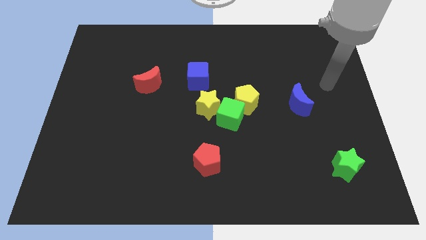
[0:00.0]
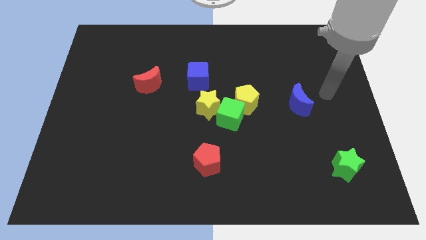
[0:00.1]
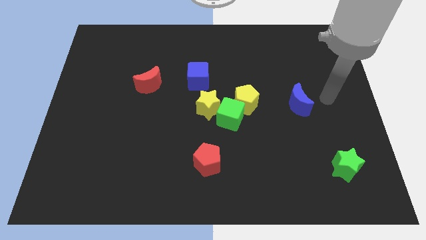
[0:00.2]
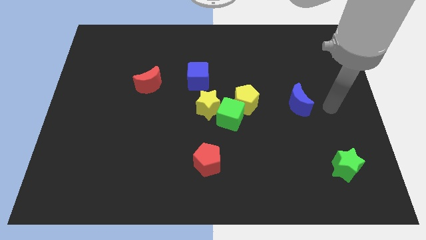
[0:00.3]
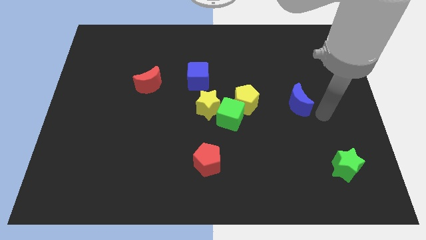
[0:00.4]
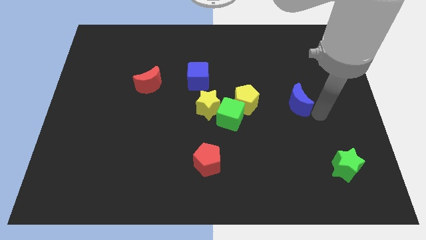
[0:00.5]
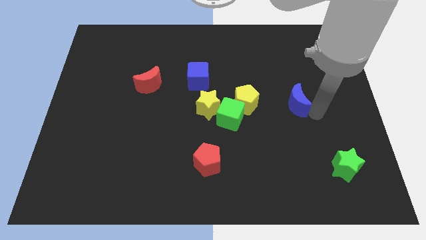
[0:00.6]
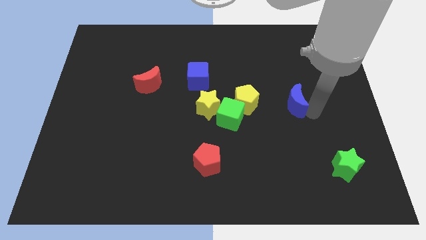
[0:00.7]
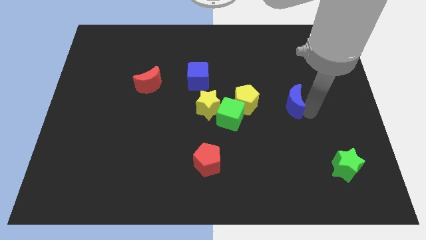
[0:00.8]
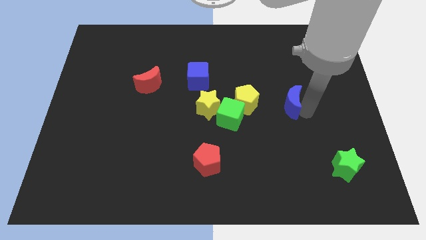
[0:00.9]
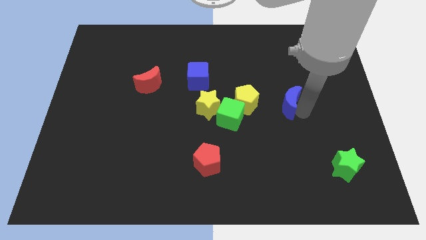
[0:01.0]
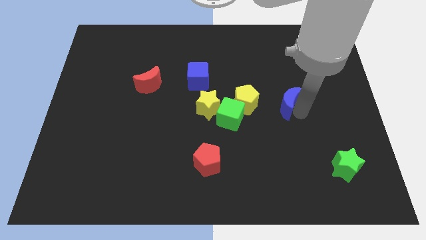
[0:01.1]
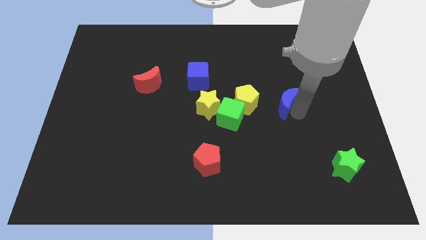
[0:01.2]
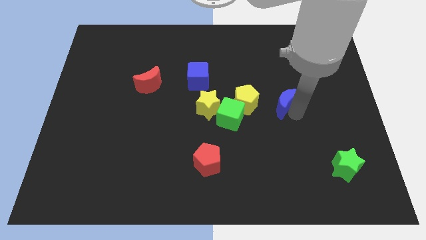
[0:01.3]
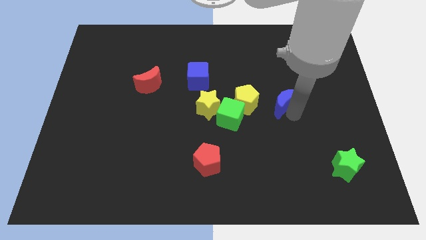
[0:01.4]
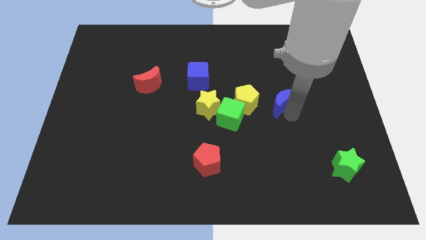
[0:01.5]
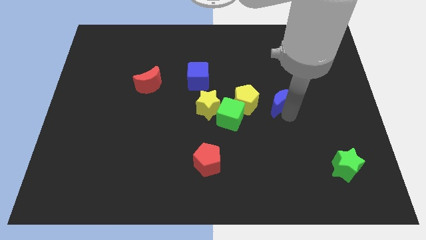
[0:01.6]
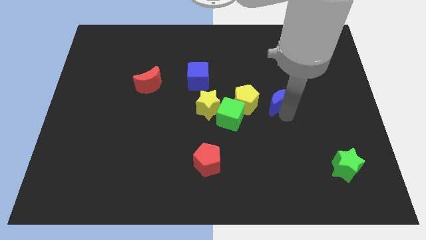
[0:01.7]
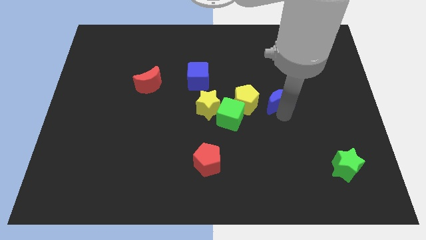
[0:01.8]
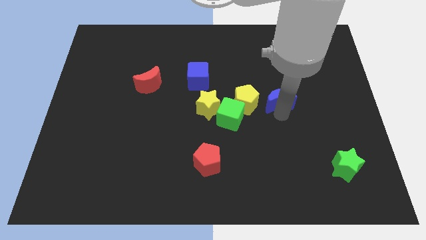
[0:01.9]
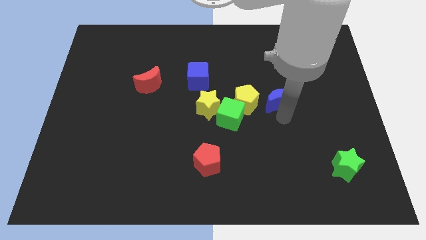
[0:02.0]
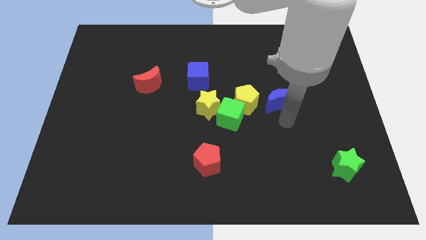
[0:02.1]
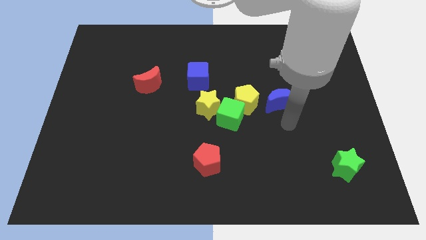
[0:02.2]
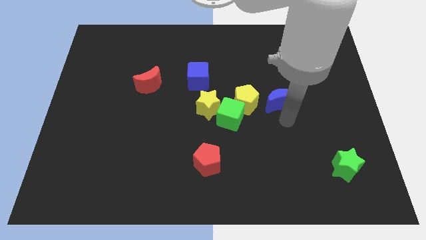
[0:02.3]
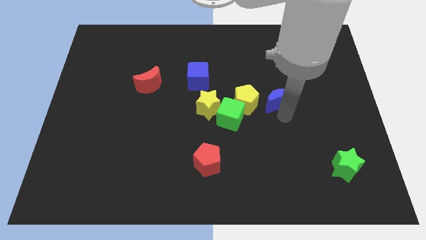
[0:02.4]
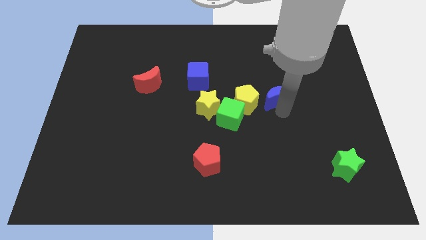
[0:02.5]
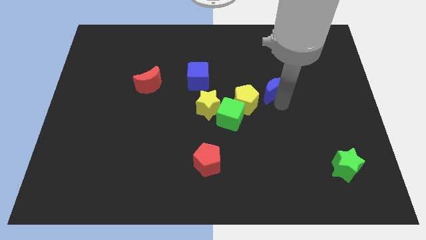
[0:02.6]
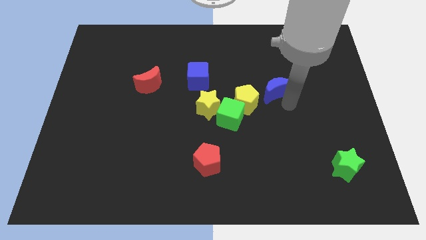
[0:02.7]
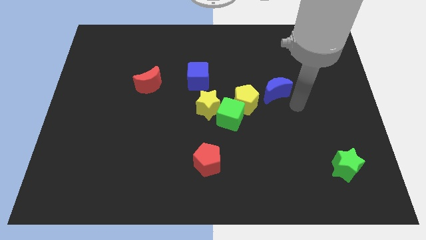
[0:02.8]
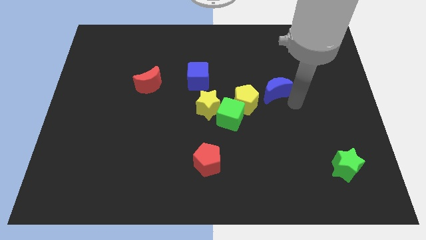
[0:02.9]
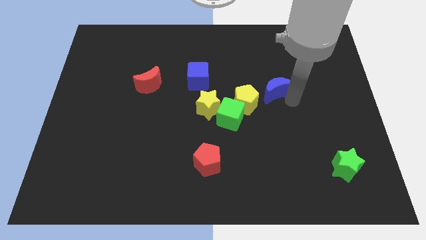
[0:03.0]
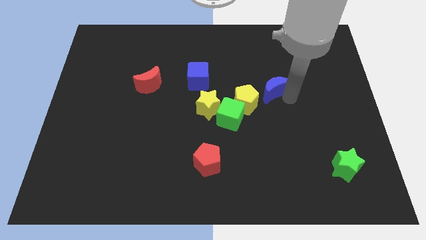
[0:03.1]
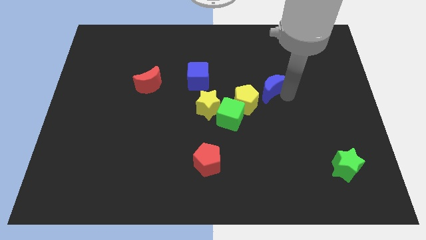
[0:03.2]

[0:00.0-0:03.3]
push the blue moon somewhat up and then left

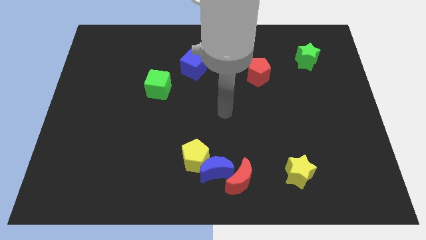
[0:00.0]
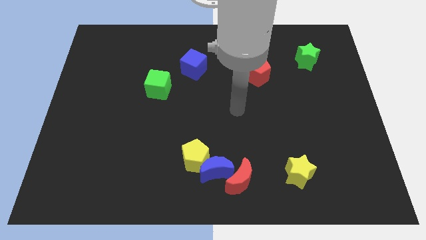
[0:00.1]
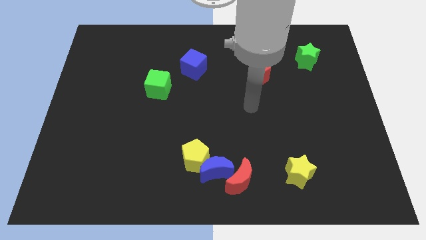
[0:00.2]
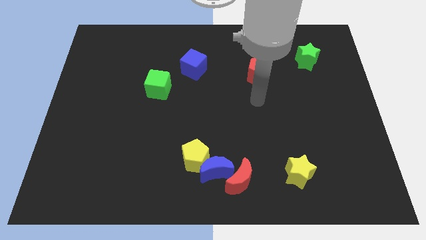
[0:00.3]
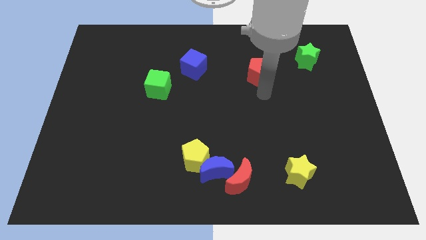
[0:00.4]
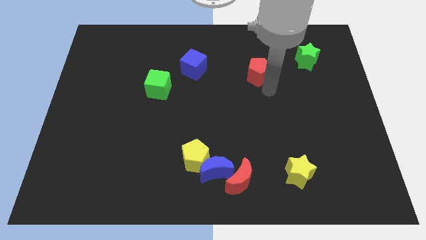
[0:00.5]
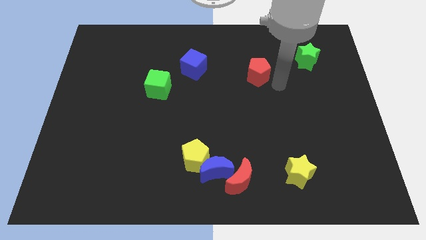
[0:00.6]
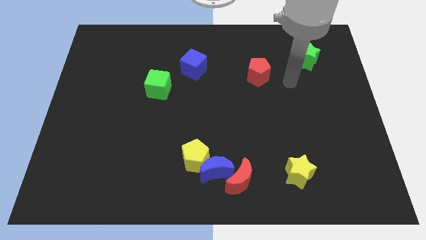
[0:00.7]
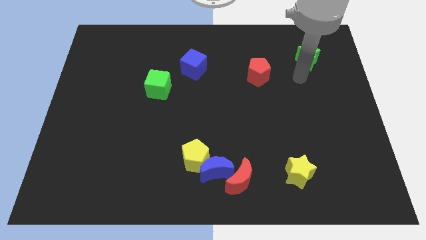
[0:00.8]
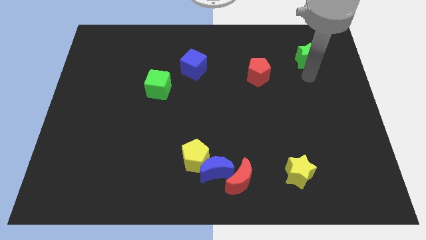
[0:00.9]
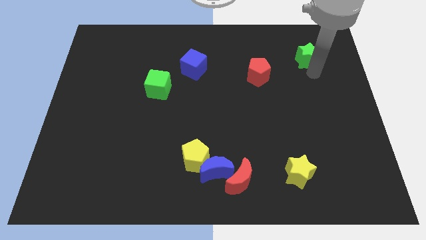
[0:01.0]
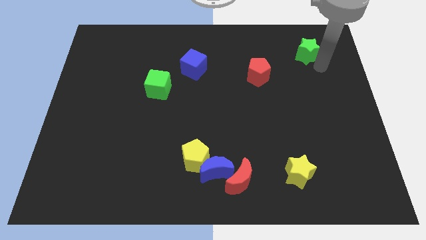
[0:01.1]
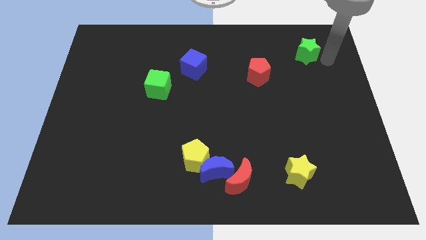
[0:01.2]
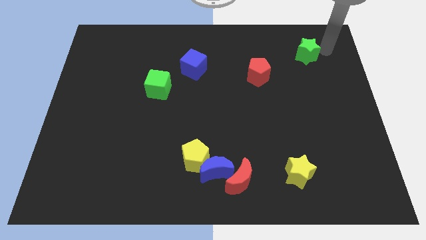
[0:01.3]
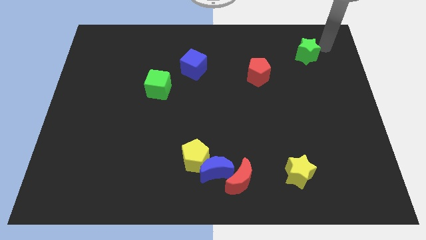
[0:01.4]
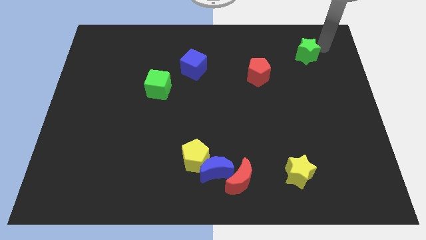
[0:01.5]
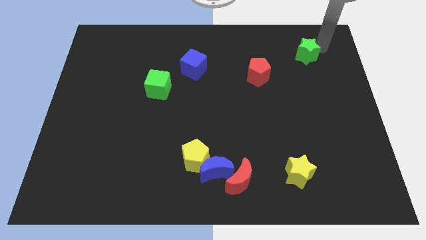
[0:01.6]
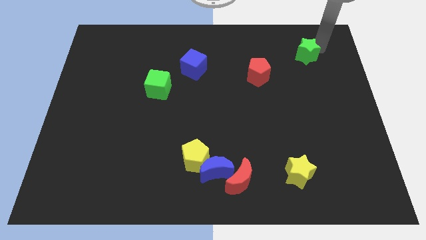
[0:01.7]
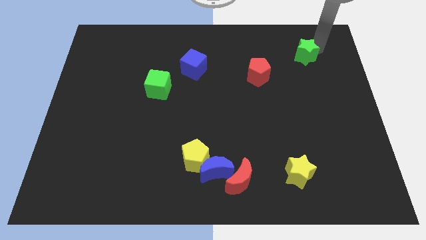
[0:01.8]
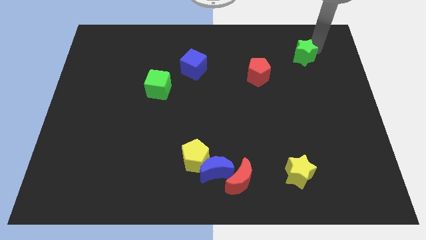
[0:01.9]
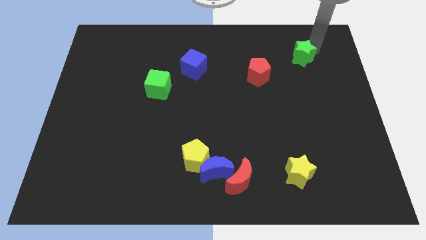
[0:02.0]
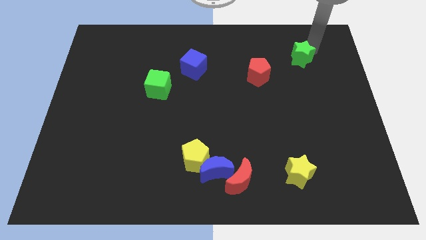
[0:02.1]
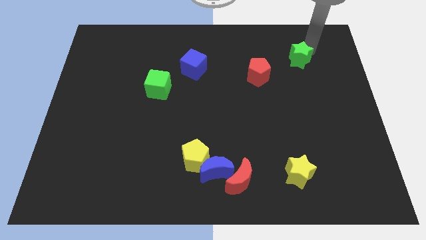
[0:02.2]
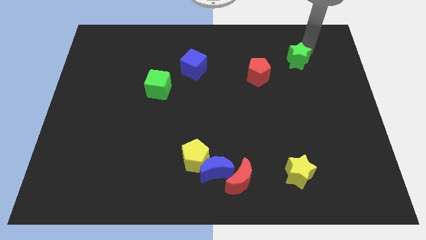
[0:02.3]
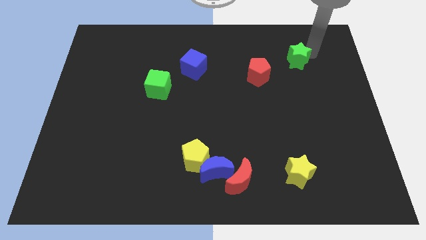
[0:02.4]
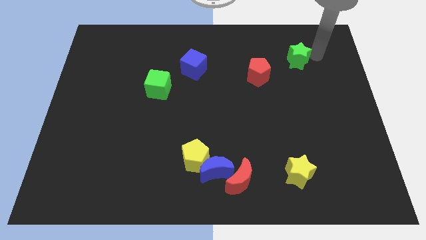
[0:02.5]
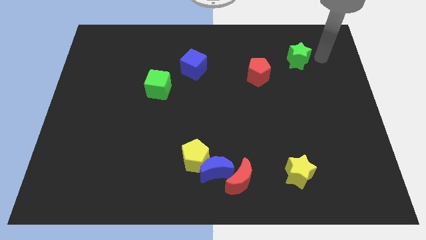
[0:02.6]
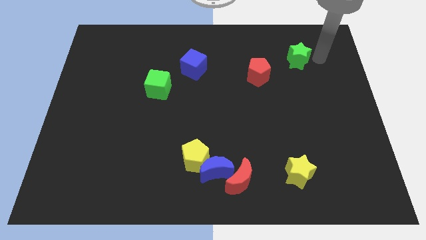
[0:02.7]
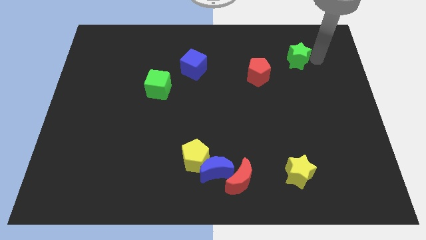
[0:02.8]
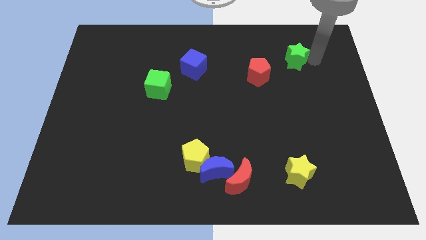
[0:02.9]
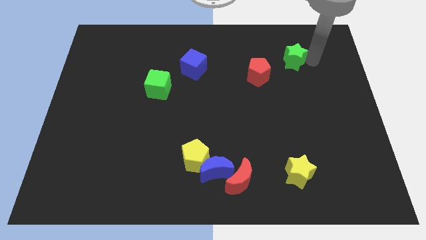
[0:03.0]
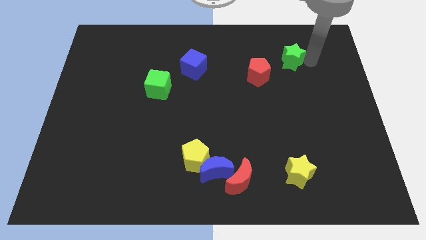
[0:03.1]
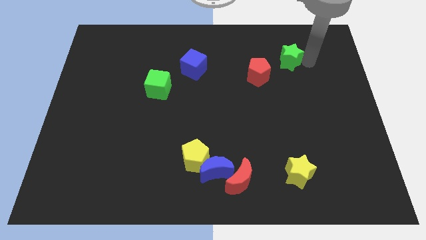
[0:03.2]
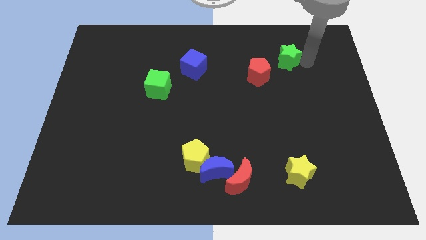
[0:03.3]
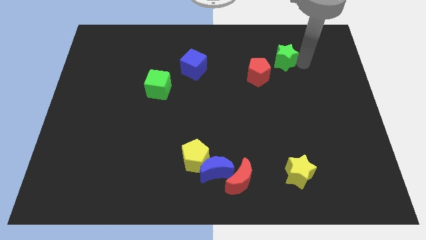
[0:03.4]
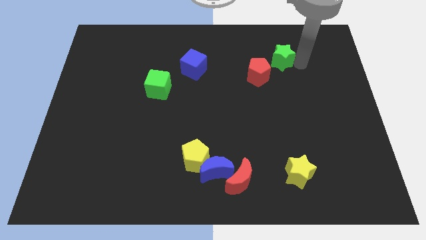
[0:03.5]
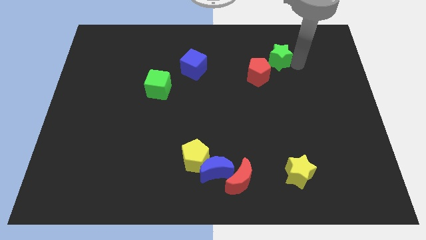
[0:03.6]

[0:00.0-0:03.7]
move the green star left slightly

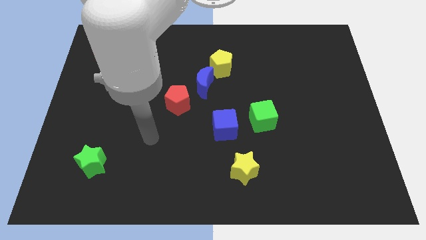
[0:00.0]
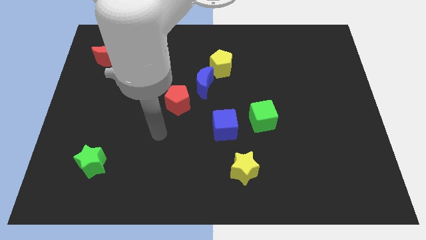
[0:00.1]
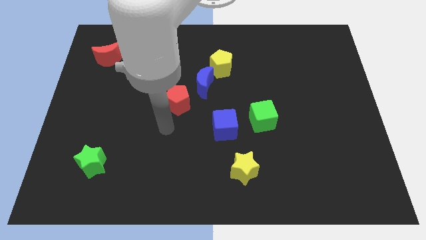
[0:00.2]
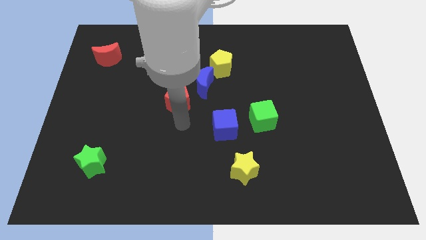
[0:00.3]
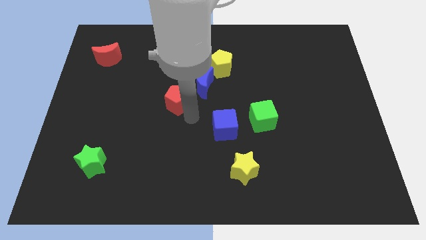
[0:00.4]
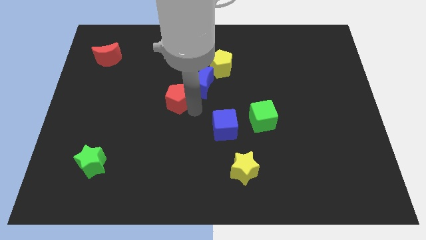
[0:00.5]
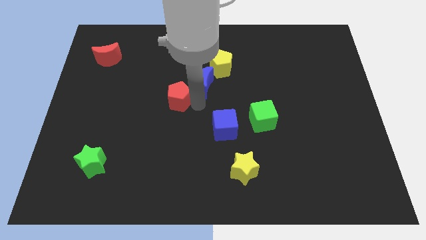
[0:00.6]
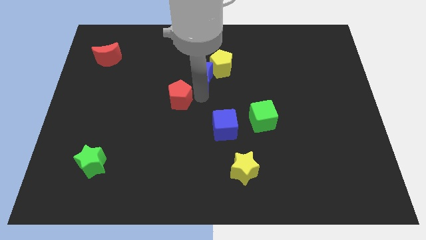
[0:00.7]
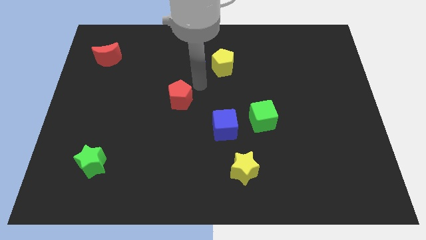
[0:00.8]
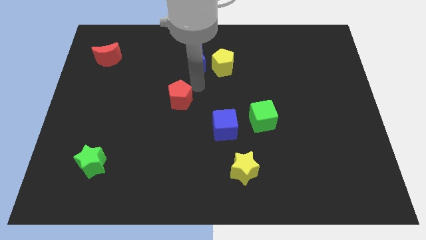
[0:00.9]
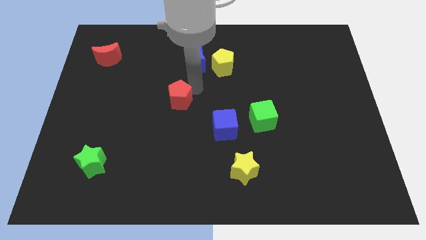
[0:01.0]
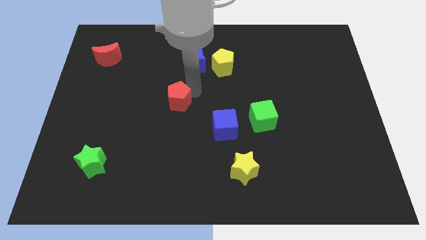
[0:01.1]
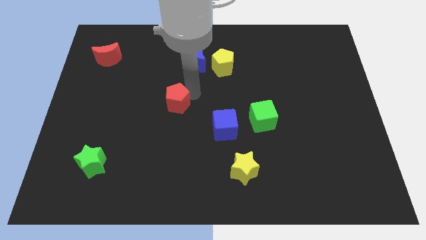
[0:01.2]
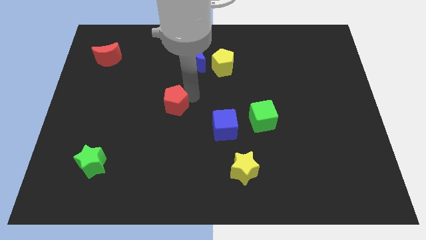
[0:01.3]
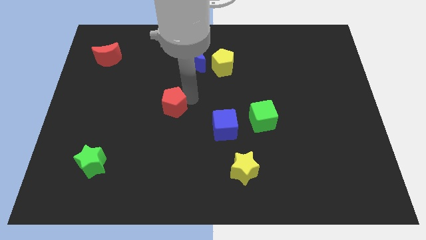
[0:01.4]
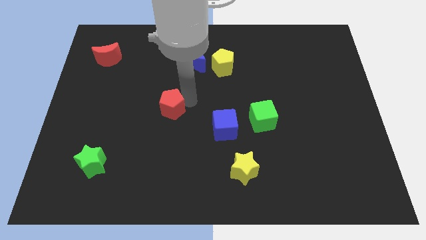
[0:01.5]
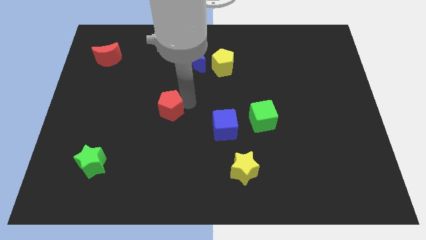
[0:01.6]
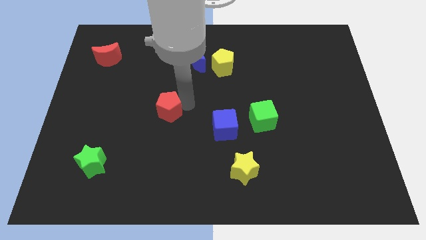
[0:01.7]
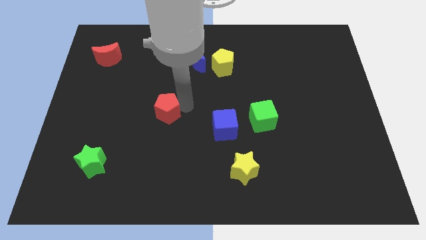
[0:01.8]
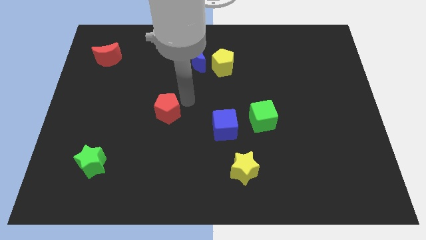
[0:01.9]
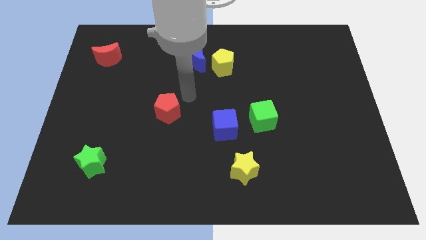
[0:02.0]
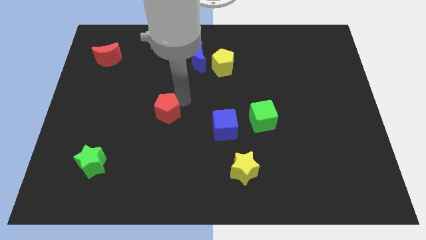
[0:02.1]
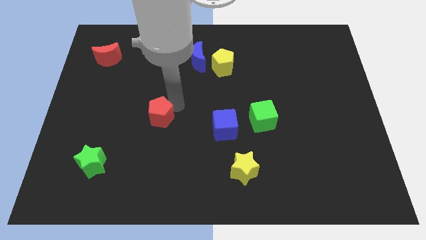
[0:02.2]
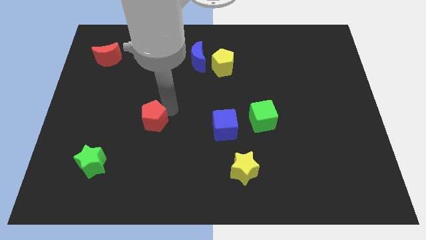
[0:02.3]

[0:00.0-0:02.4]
slide the red pentagon slightly downwards and then to the left
